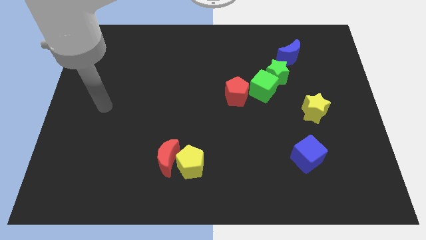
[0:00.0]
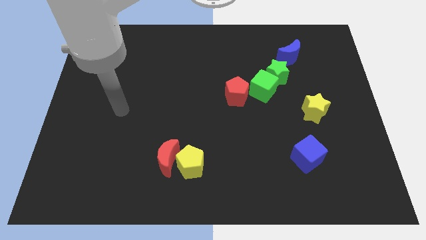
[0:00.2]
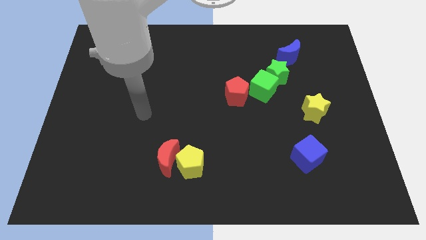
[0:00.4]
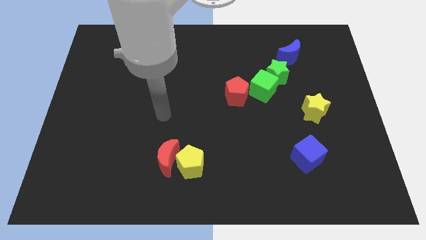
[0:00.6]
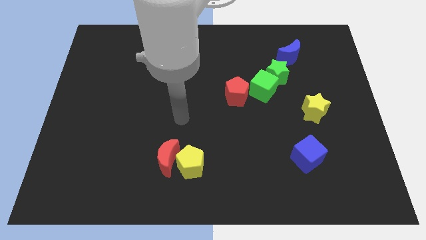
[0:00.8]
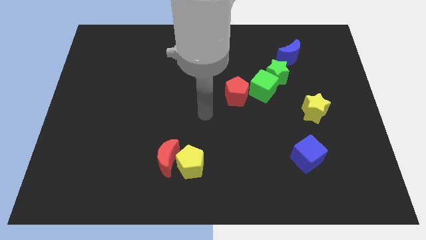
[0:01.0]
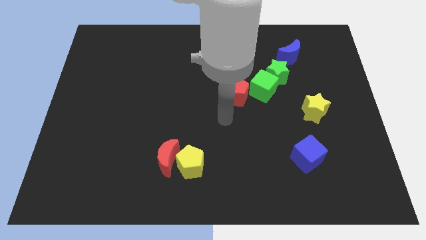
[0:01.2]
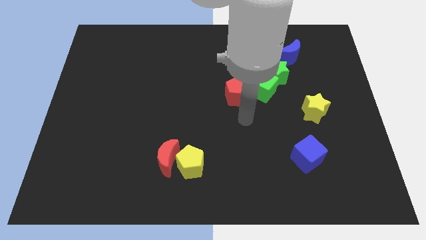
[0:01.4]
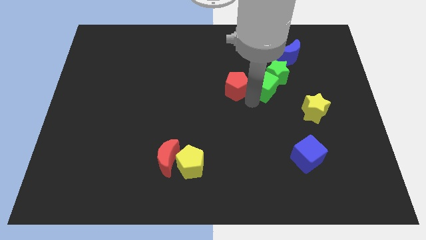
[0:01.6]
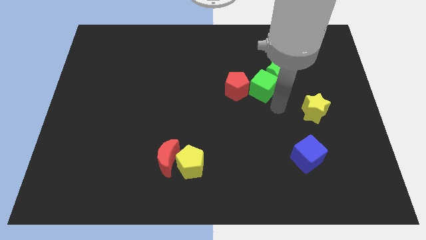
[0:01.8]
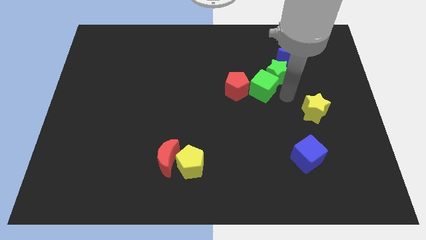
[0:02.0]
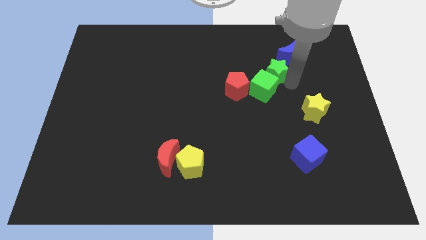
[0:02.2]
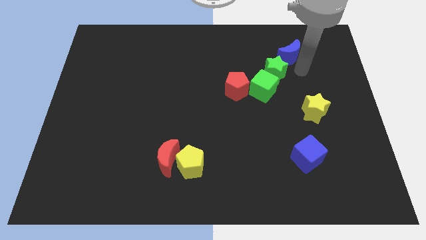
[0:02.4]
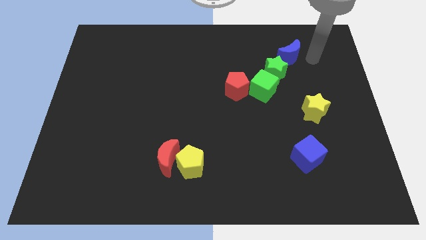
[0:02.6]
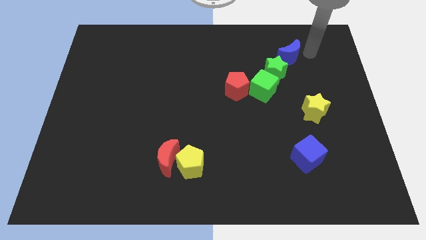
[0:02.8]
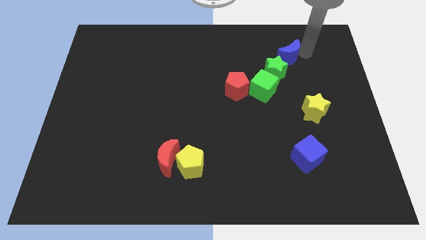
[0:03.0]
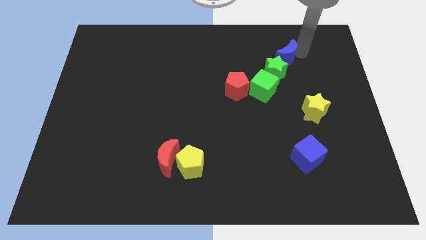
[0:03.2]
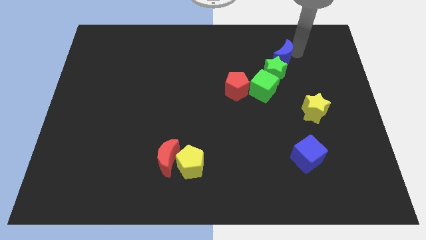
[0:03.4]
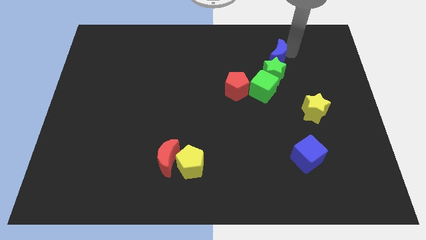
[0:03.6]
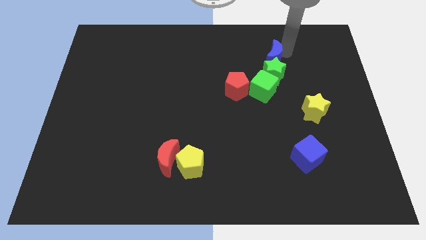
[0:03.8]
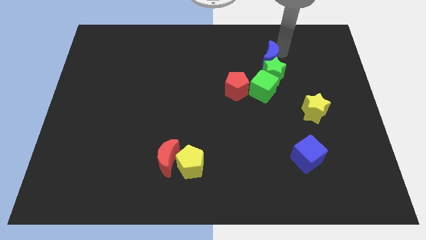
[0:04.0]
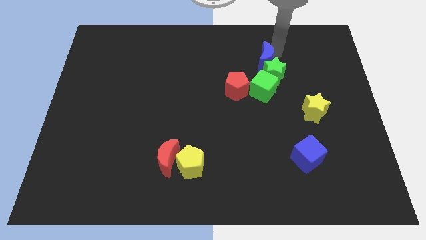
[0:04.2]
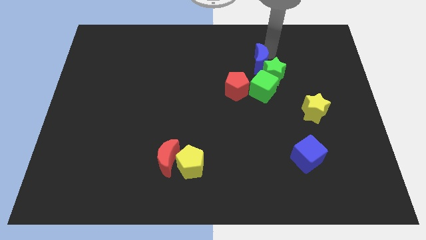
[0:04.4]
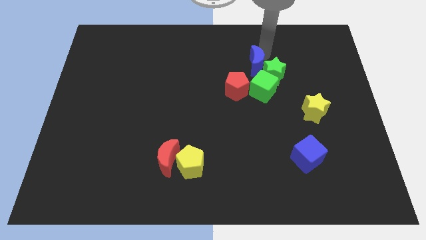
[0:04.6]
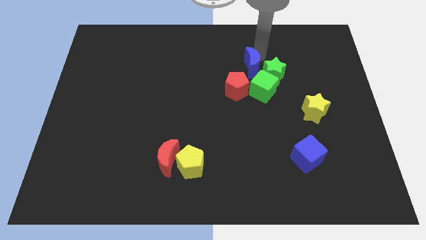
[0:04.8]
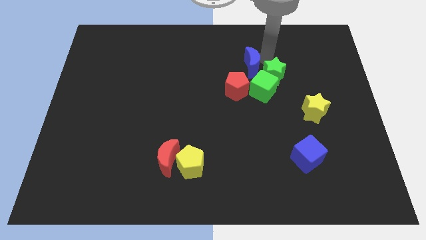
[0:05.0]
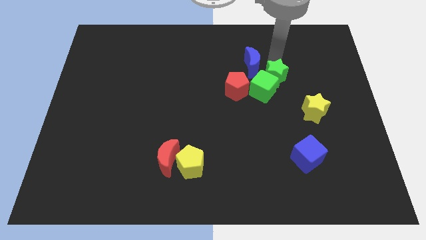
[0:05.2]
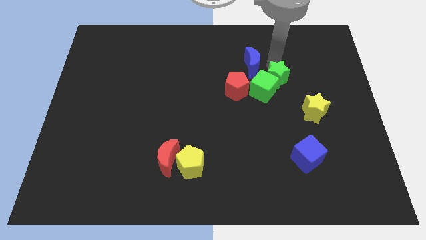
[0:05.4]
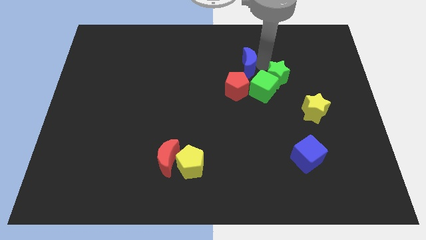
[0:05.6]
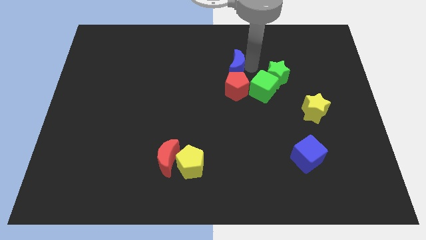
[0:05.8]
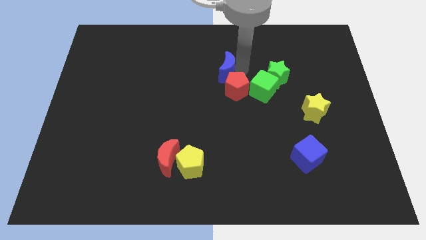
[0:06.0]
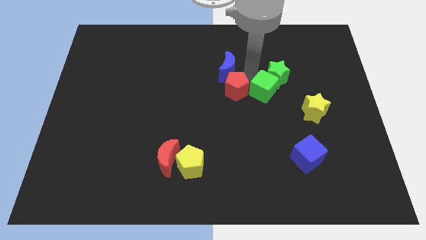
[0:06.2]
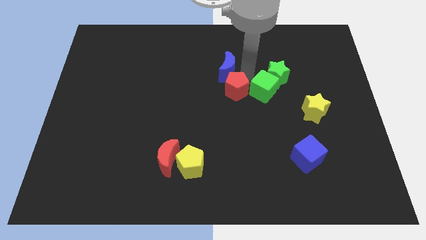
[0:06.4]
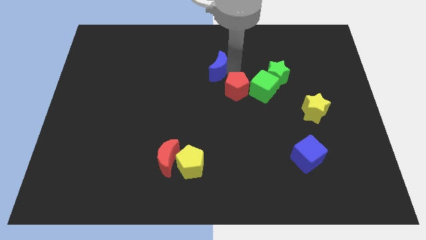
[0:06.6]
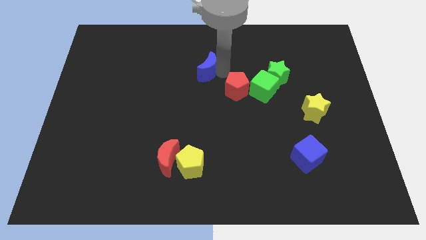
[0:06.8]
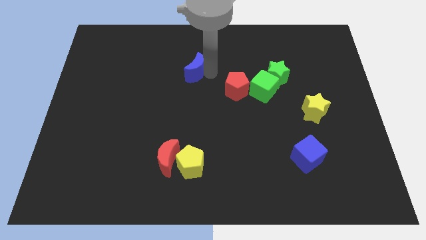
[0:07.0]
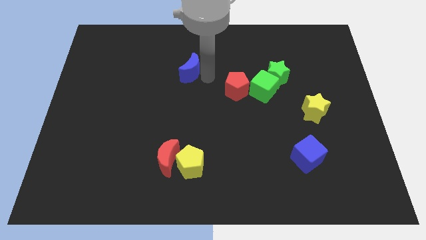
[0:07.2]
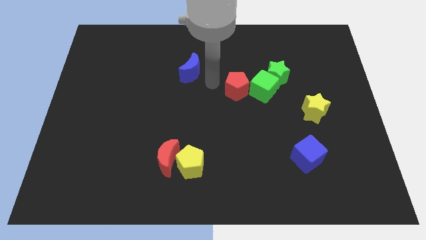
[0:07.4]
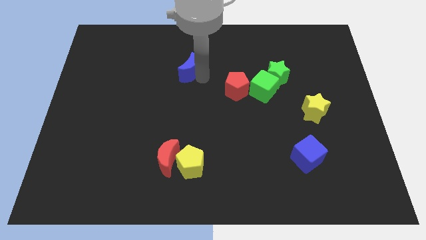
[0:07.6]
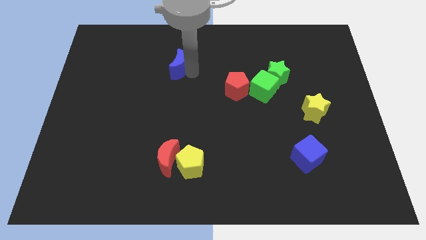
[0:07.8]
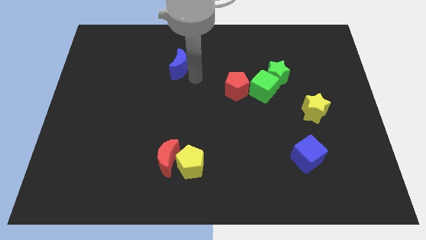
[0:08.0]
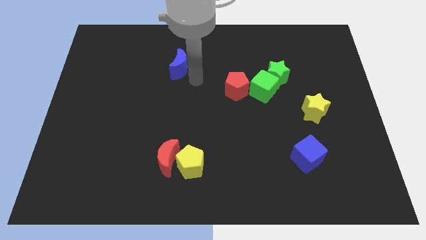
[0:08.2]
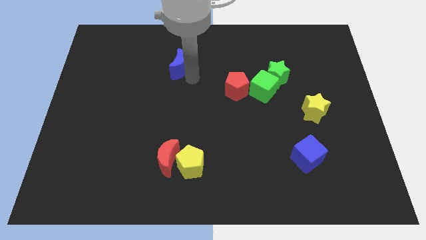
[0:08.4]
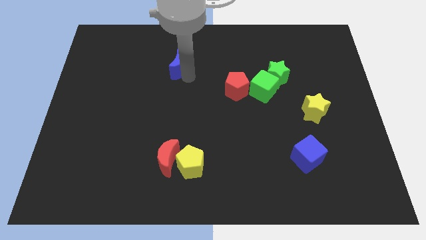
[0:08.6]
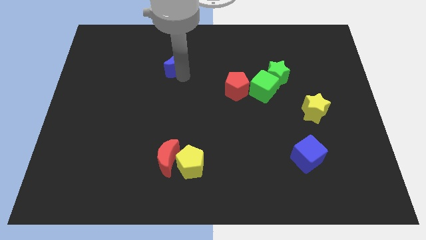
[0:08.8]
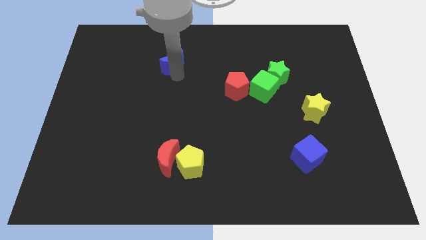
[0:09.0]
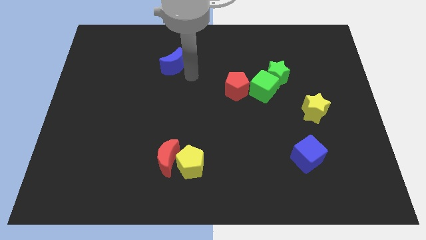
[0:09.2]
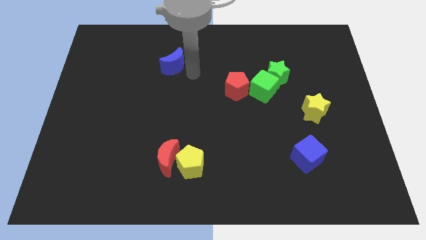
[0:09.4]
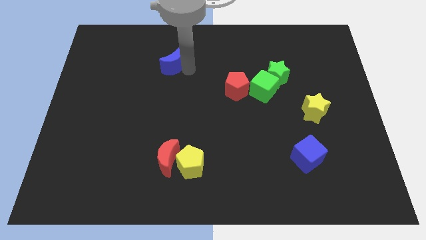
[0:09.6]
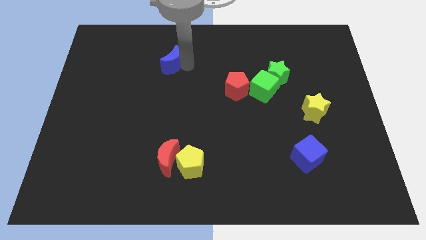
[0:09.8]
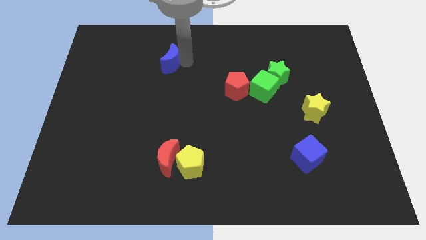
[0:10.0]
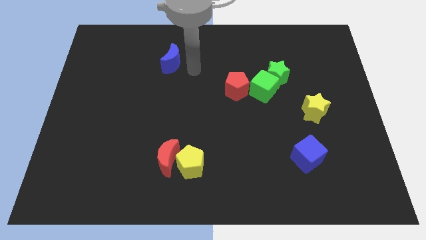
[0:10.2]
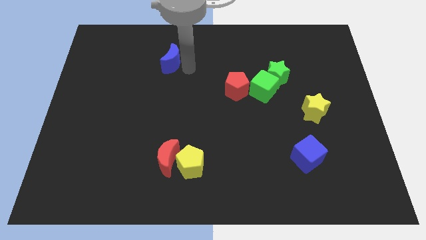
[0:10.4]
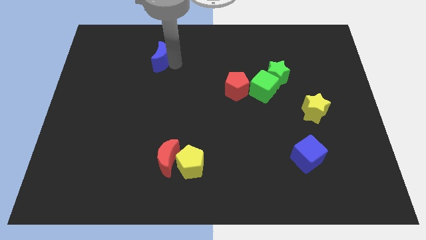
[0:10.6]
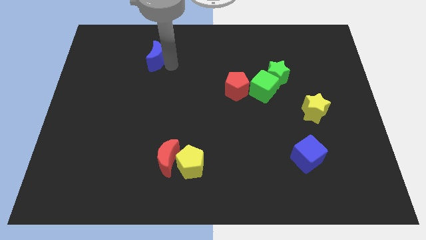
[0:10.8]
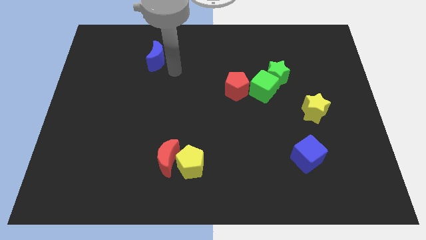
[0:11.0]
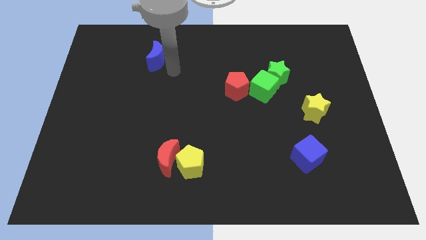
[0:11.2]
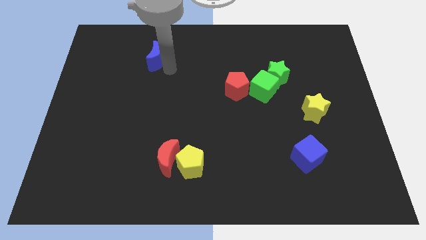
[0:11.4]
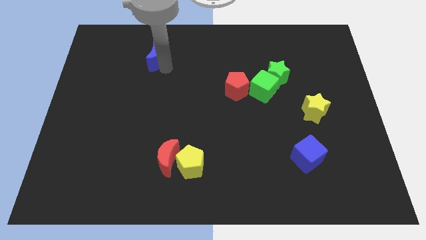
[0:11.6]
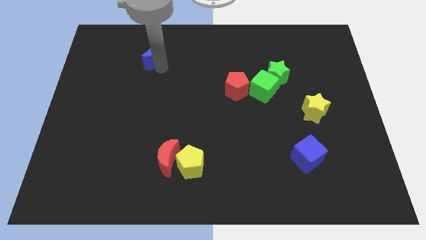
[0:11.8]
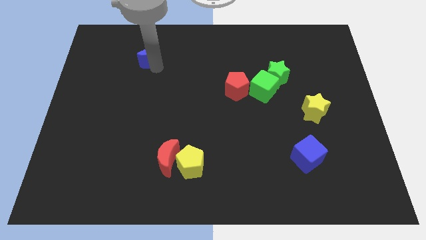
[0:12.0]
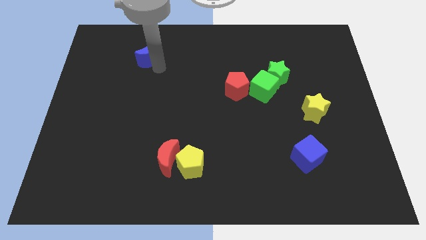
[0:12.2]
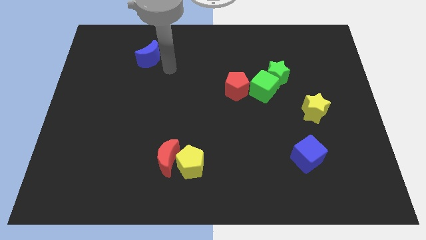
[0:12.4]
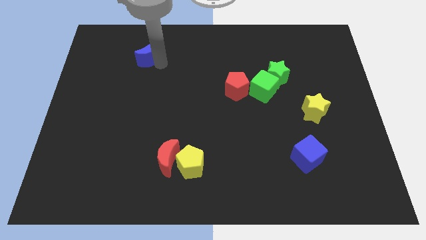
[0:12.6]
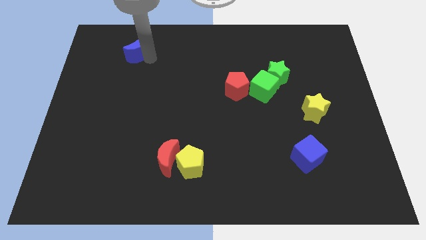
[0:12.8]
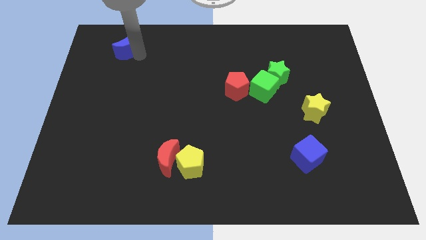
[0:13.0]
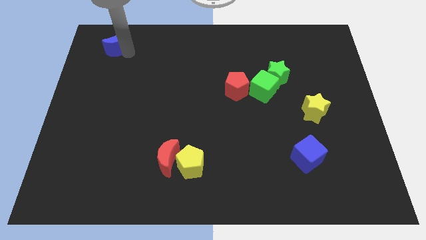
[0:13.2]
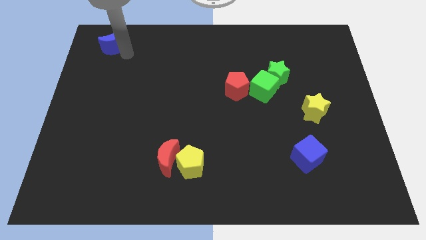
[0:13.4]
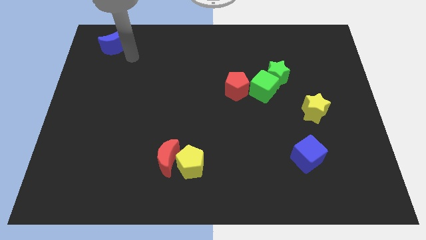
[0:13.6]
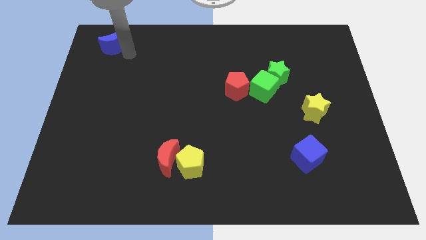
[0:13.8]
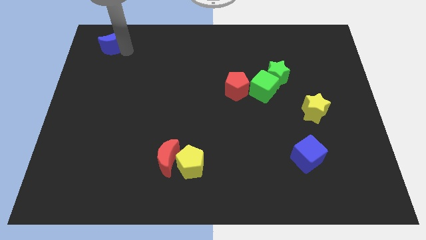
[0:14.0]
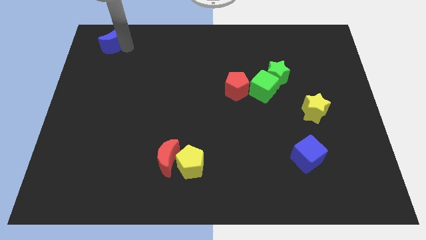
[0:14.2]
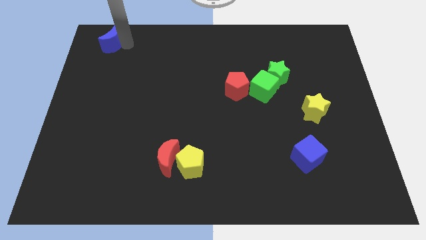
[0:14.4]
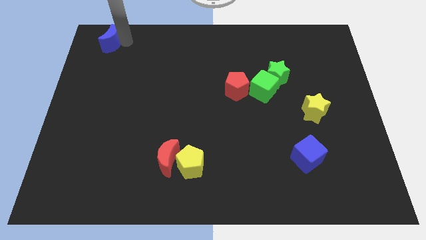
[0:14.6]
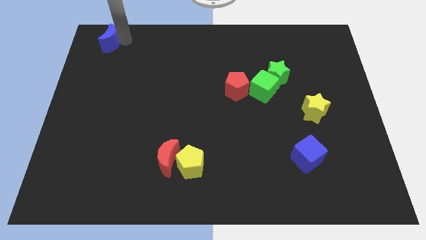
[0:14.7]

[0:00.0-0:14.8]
put the blue moon to the upper left corner
